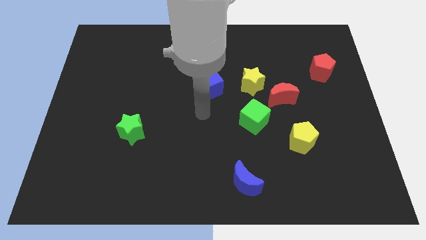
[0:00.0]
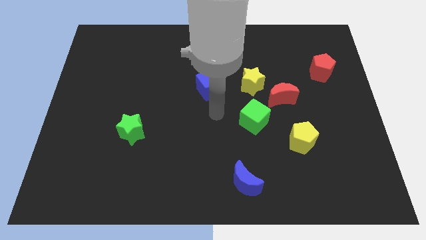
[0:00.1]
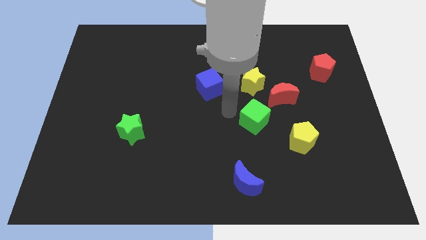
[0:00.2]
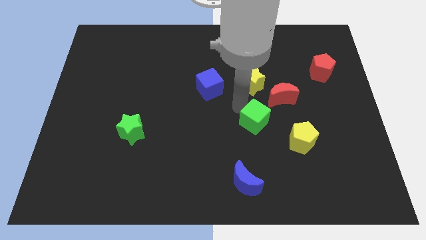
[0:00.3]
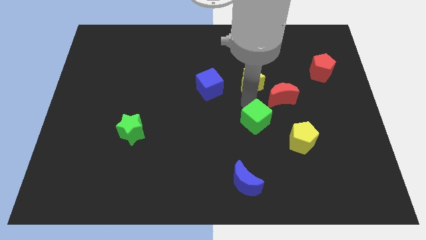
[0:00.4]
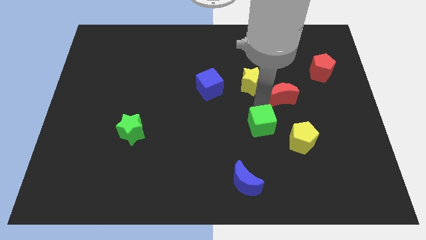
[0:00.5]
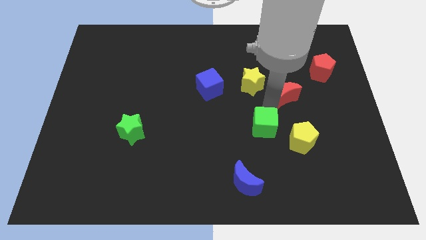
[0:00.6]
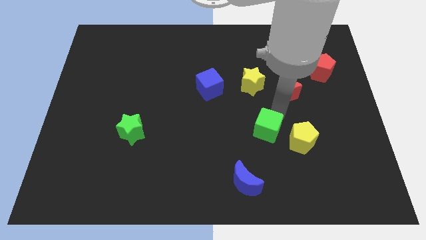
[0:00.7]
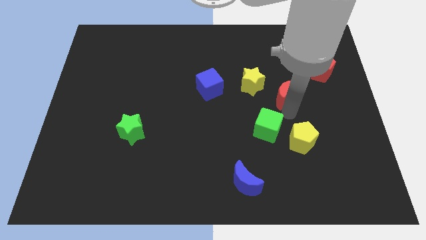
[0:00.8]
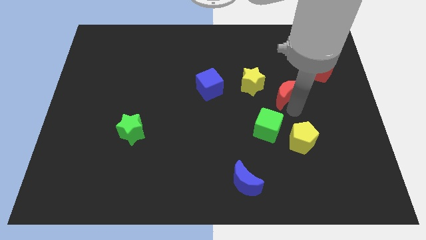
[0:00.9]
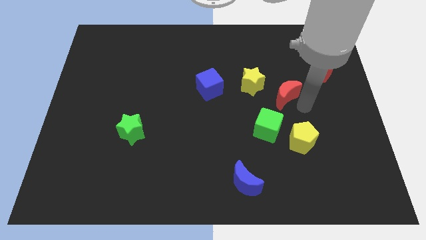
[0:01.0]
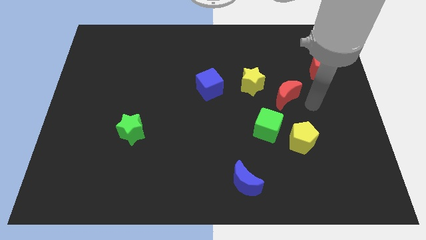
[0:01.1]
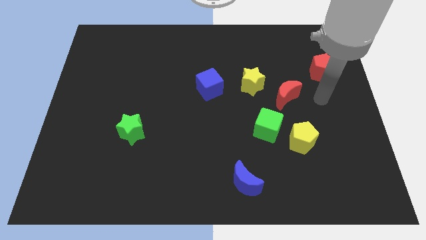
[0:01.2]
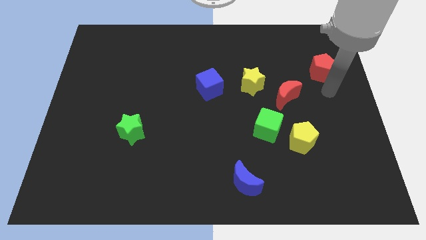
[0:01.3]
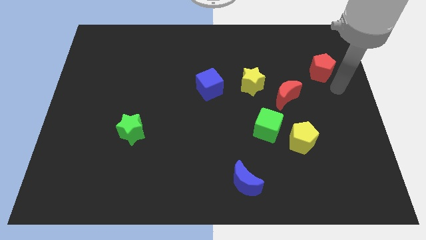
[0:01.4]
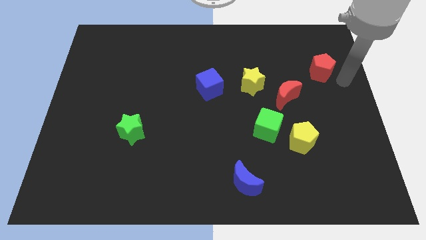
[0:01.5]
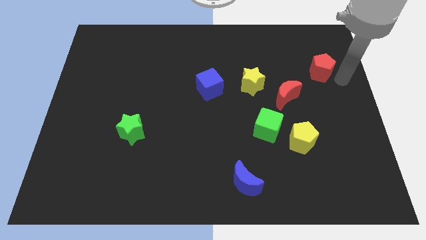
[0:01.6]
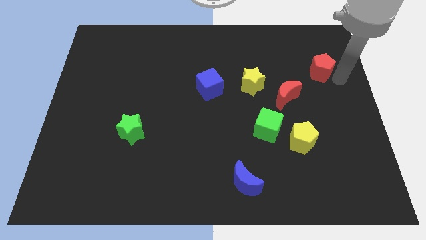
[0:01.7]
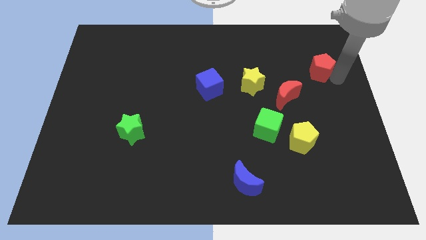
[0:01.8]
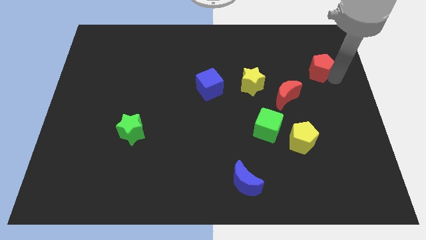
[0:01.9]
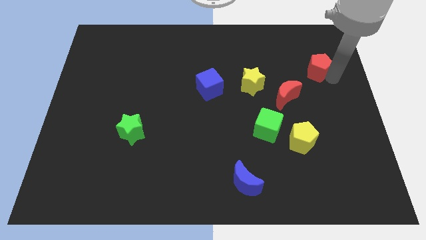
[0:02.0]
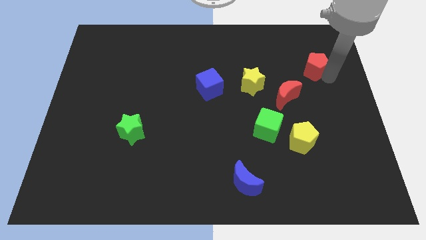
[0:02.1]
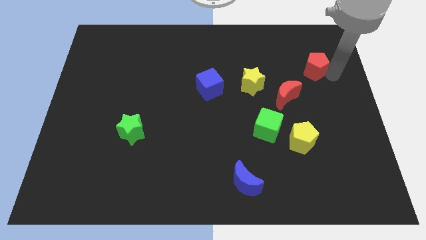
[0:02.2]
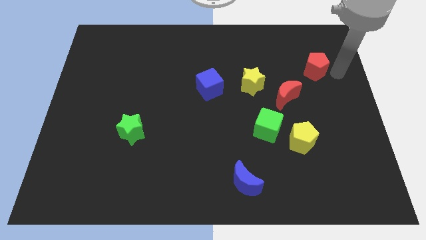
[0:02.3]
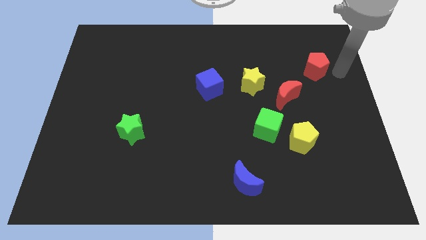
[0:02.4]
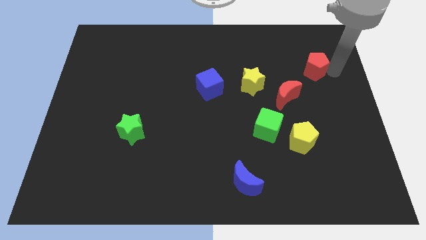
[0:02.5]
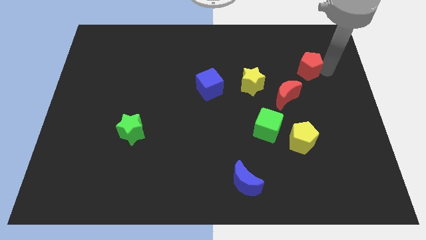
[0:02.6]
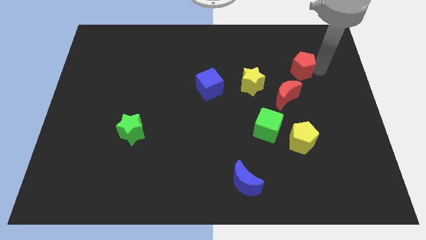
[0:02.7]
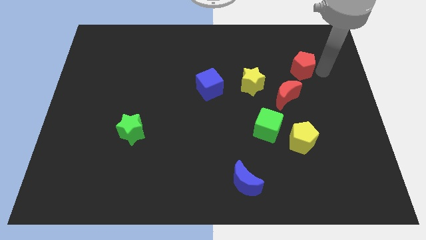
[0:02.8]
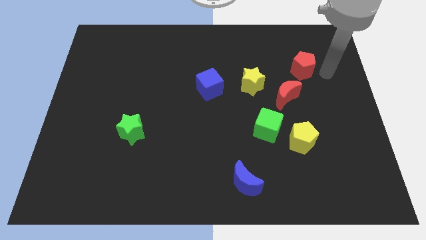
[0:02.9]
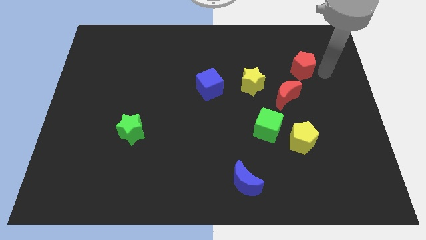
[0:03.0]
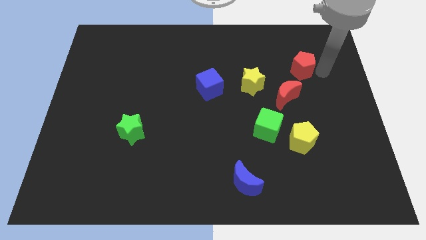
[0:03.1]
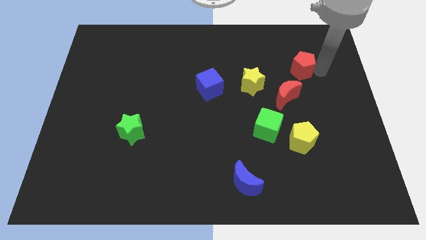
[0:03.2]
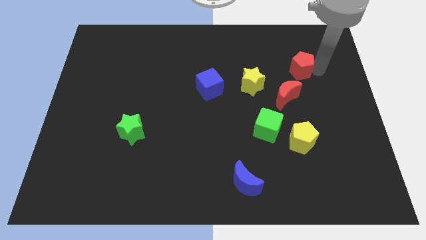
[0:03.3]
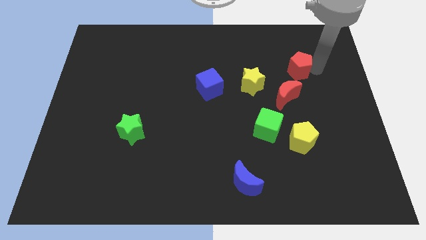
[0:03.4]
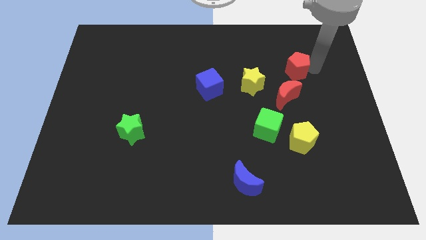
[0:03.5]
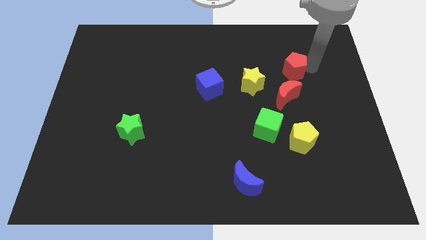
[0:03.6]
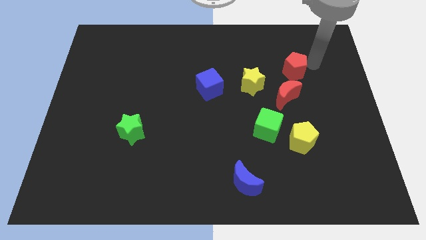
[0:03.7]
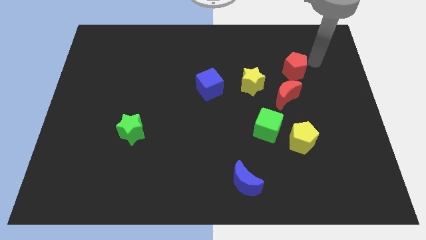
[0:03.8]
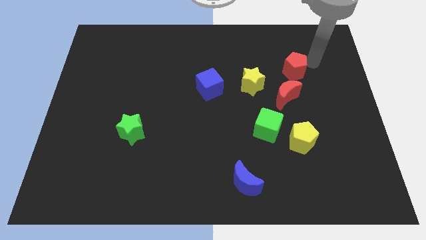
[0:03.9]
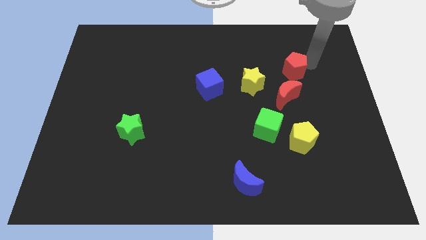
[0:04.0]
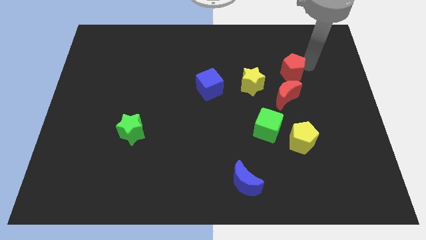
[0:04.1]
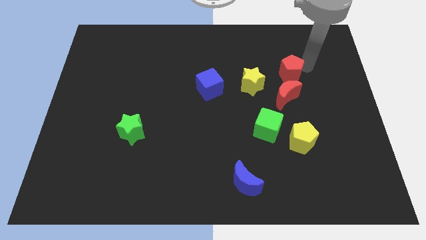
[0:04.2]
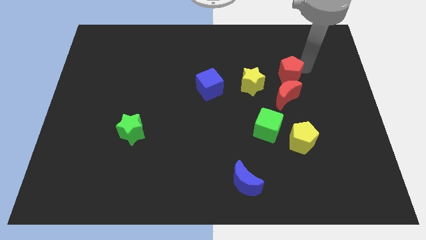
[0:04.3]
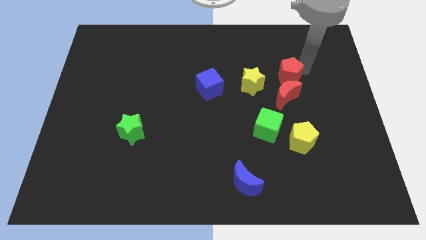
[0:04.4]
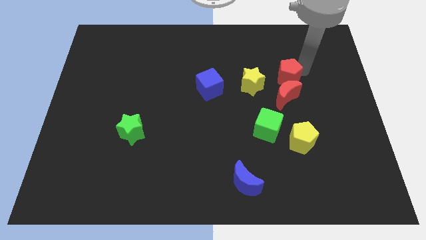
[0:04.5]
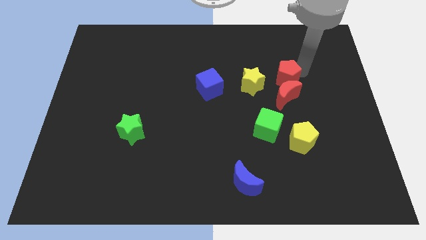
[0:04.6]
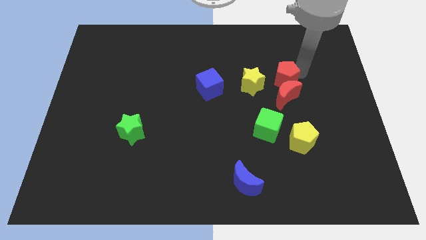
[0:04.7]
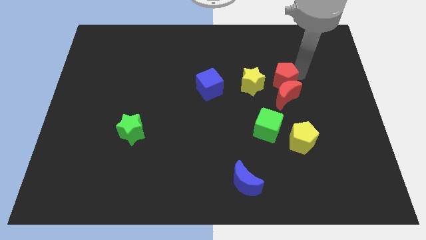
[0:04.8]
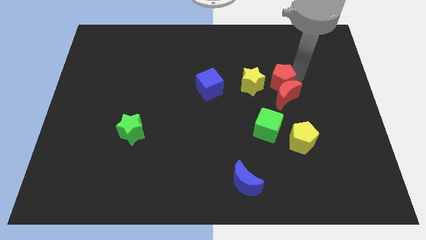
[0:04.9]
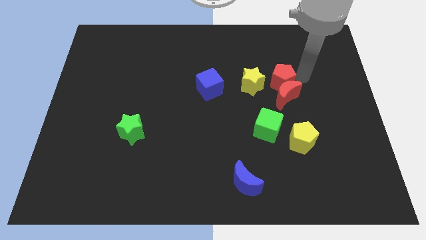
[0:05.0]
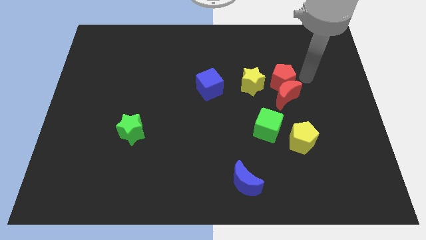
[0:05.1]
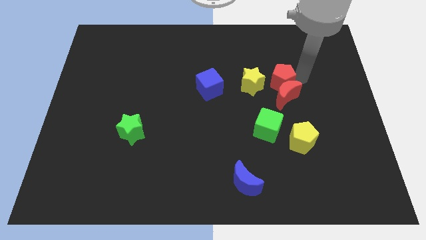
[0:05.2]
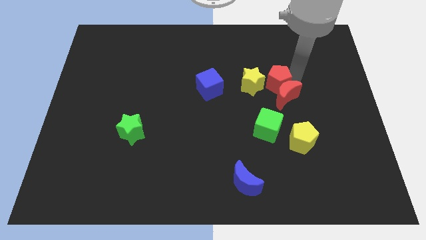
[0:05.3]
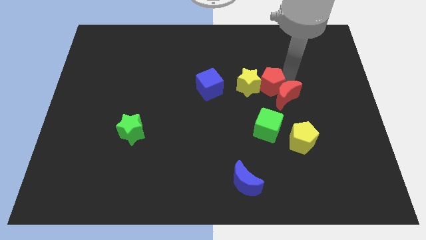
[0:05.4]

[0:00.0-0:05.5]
slide the red pentagon to the yellow star

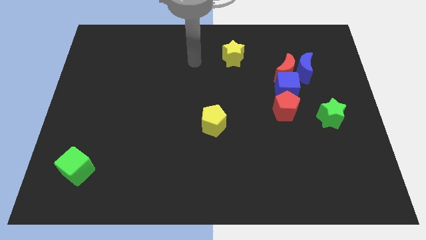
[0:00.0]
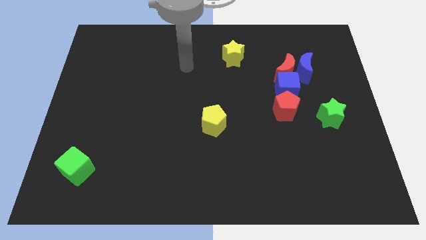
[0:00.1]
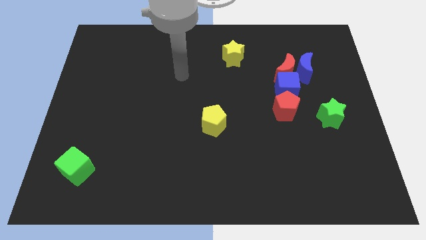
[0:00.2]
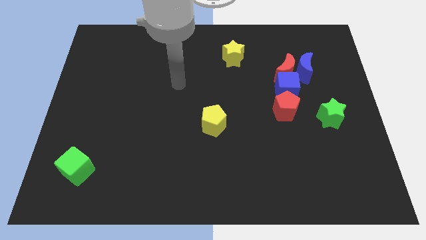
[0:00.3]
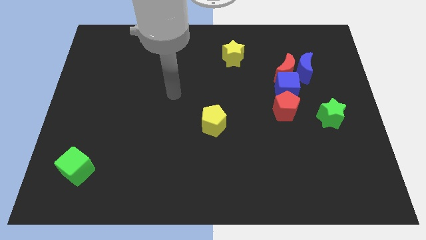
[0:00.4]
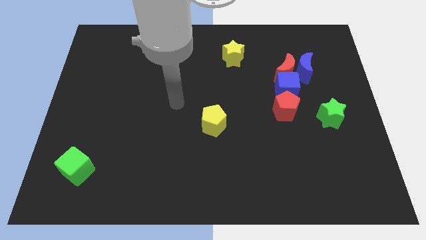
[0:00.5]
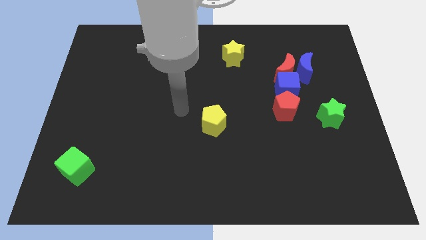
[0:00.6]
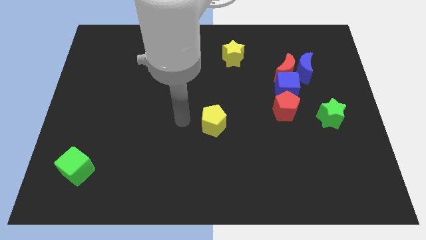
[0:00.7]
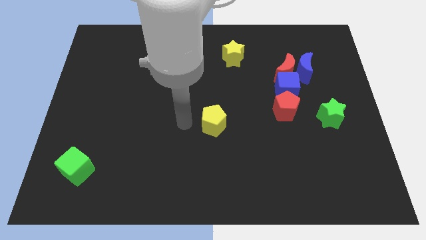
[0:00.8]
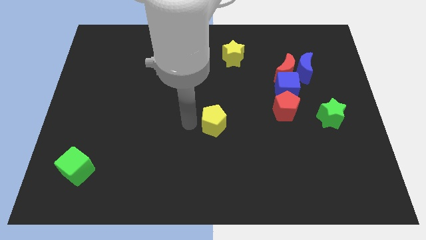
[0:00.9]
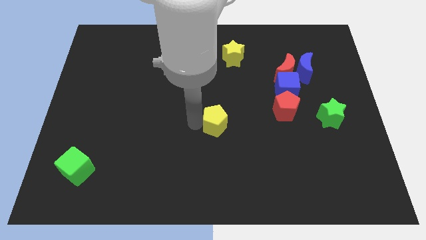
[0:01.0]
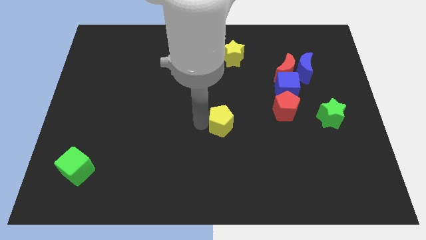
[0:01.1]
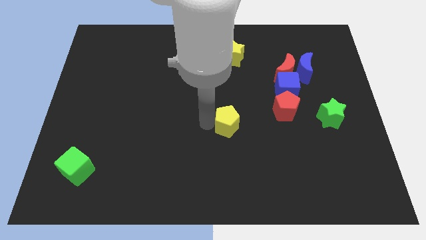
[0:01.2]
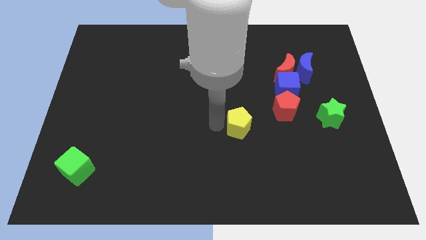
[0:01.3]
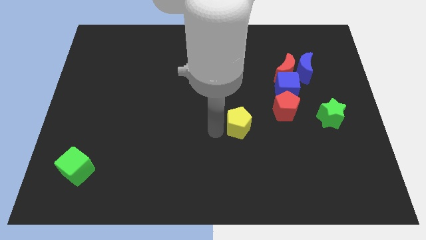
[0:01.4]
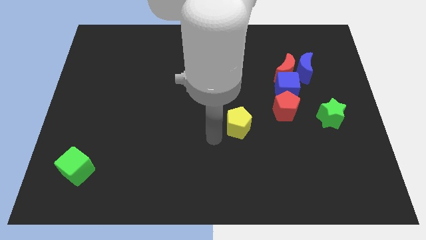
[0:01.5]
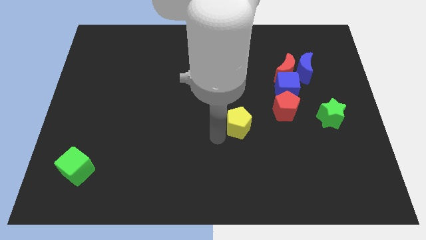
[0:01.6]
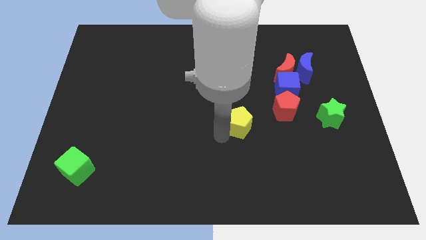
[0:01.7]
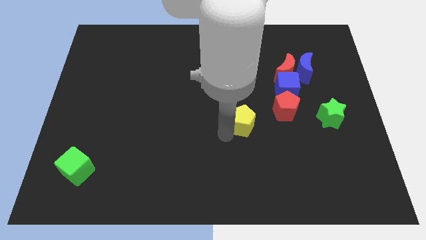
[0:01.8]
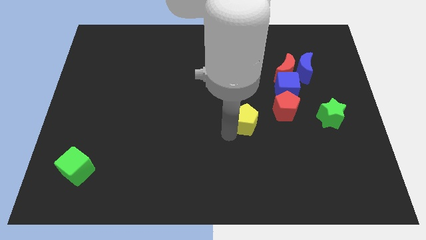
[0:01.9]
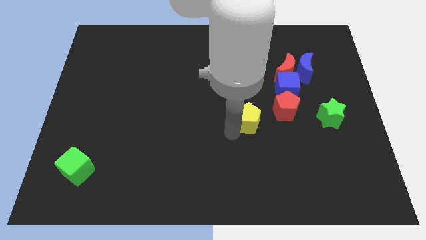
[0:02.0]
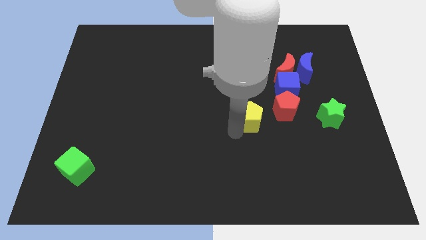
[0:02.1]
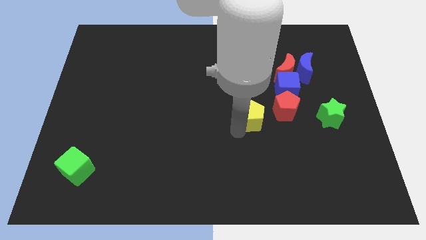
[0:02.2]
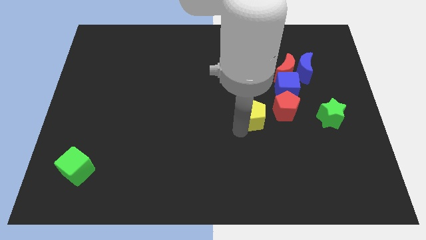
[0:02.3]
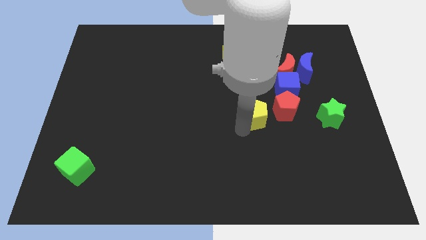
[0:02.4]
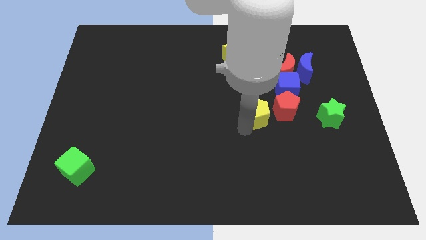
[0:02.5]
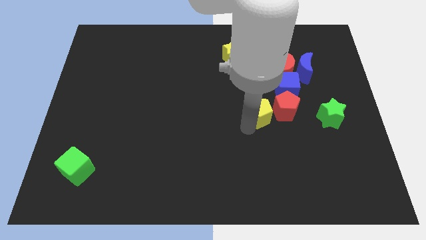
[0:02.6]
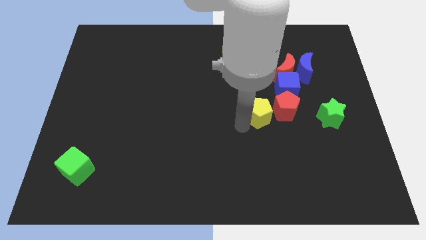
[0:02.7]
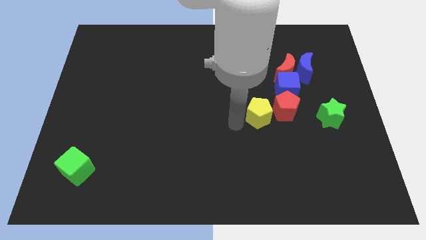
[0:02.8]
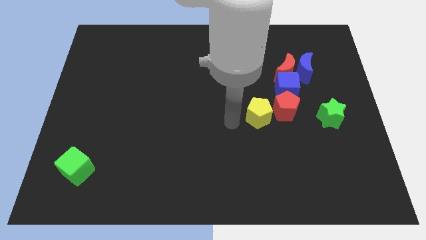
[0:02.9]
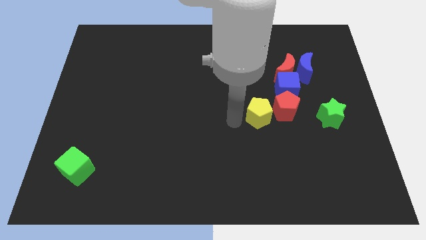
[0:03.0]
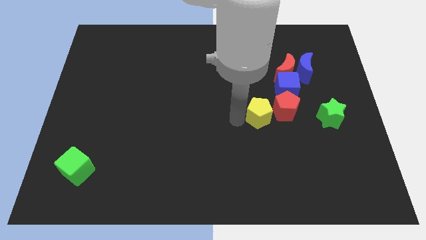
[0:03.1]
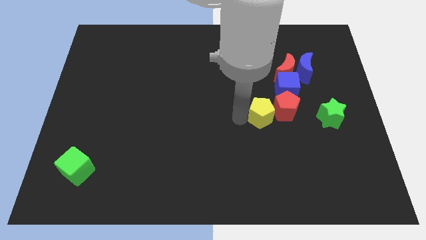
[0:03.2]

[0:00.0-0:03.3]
push the yellow pentagon next to the red pentagon
